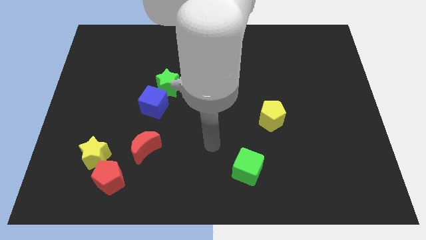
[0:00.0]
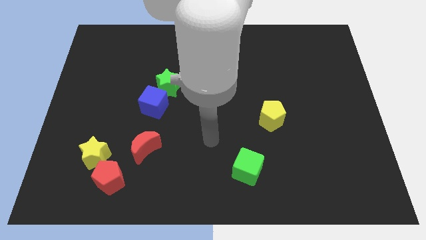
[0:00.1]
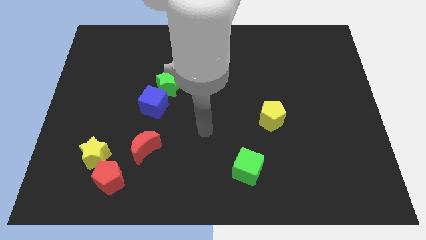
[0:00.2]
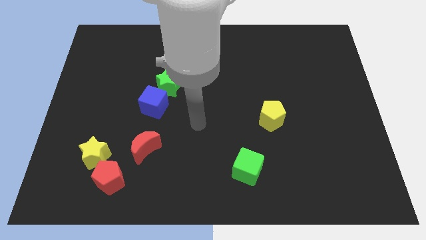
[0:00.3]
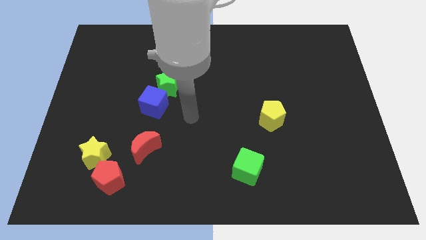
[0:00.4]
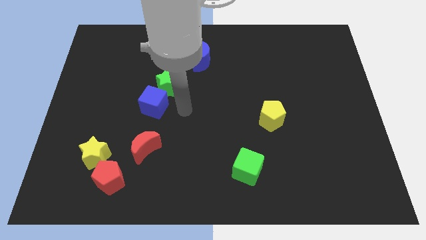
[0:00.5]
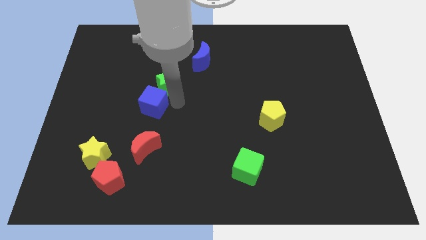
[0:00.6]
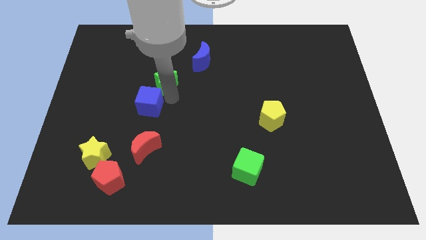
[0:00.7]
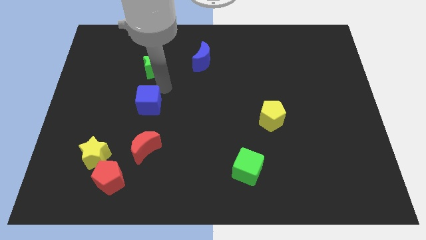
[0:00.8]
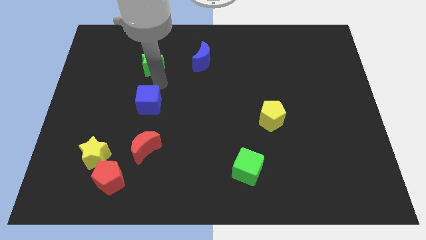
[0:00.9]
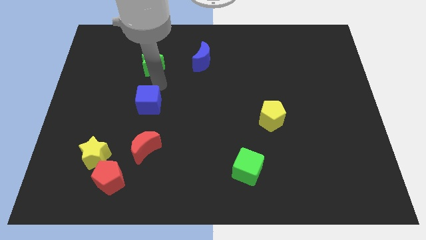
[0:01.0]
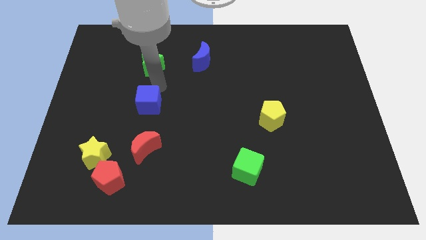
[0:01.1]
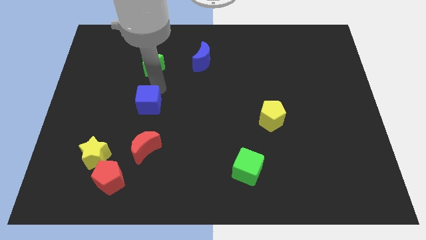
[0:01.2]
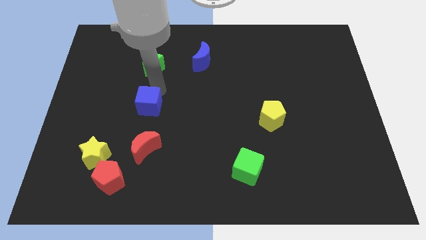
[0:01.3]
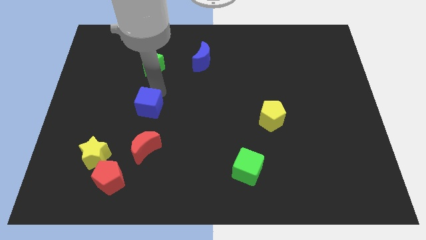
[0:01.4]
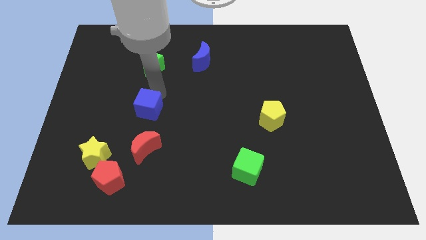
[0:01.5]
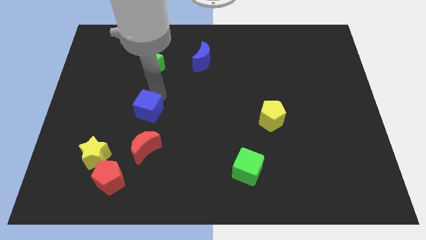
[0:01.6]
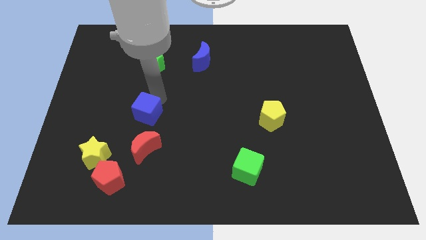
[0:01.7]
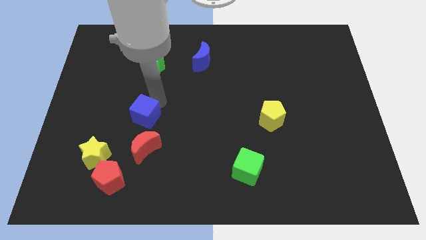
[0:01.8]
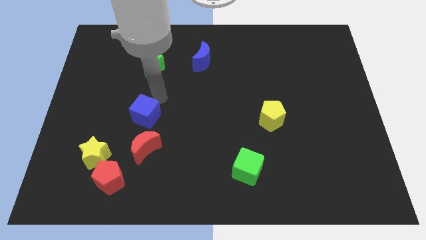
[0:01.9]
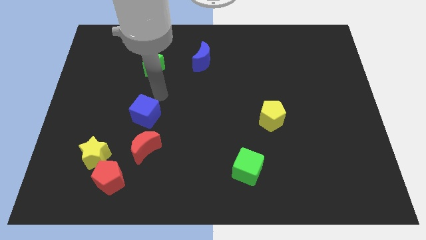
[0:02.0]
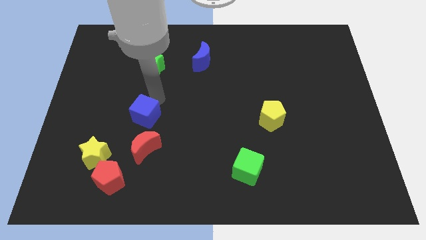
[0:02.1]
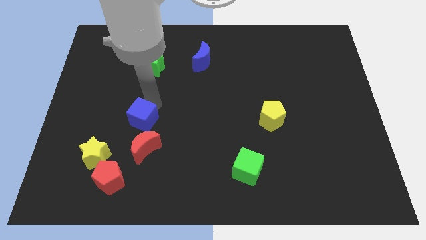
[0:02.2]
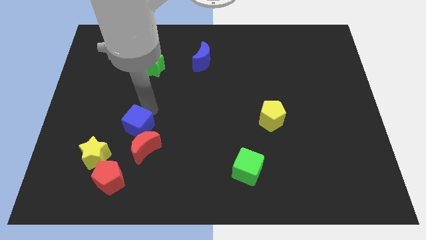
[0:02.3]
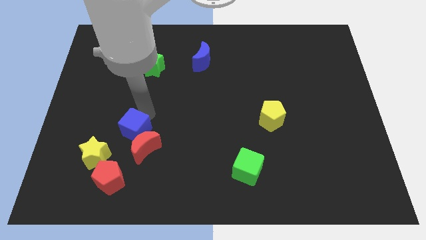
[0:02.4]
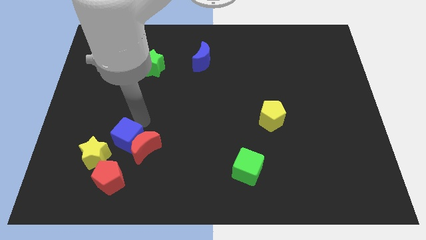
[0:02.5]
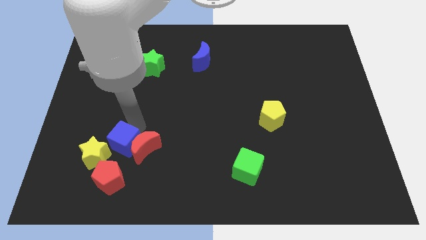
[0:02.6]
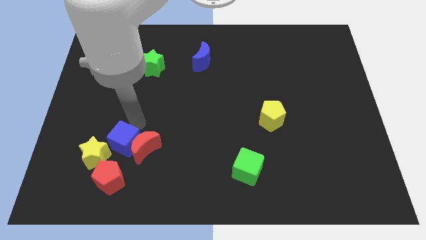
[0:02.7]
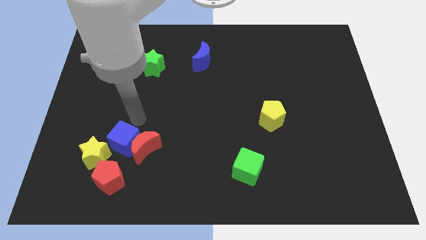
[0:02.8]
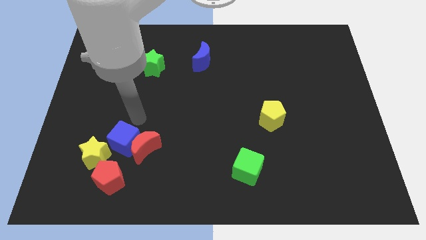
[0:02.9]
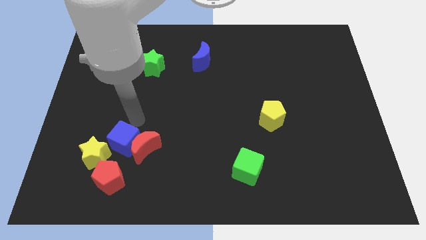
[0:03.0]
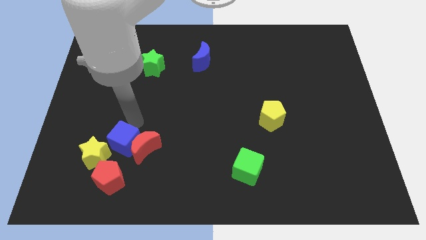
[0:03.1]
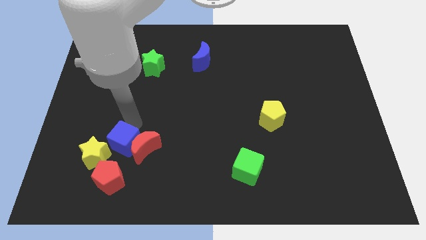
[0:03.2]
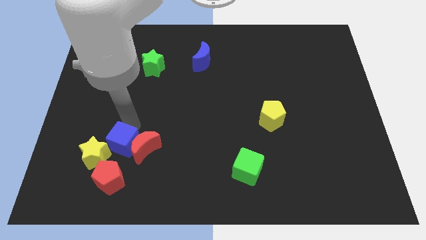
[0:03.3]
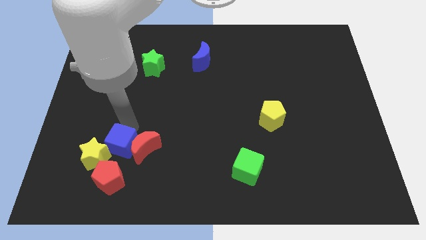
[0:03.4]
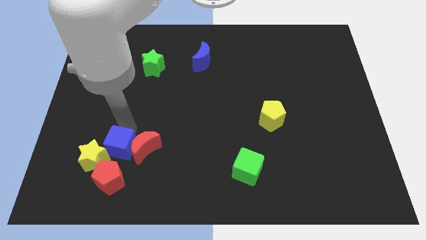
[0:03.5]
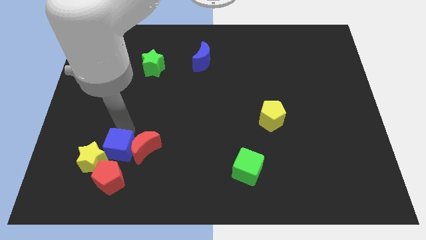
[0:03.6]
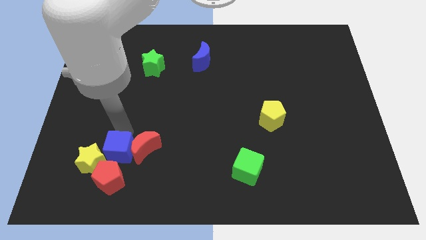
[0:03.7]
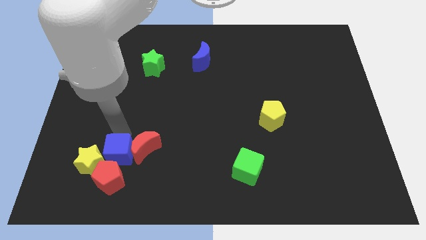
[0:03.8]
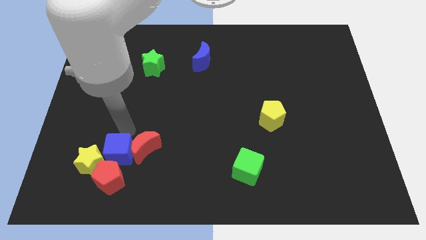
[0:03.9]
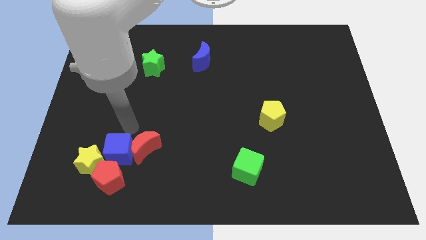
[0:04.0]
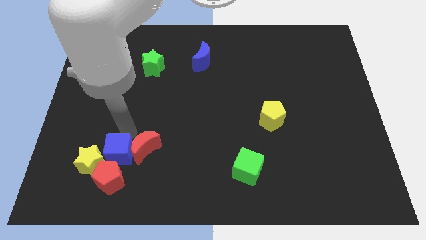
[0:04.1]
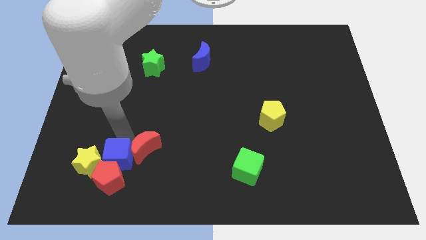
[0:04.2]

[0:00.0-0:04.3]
push the blue cube to the red pentagon

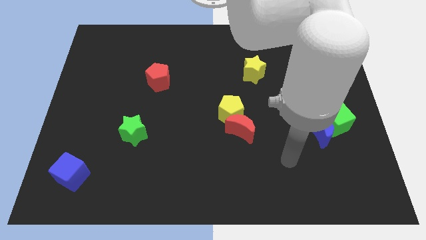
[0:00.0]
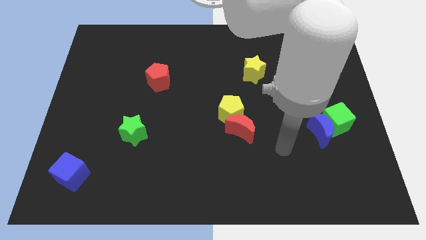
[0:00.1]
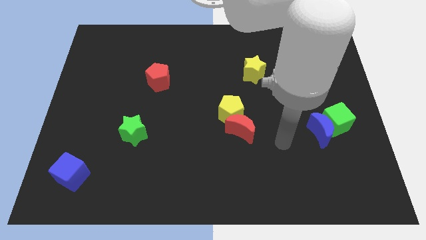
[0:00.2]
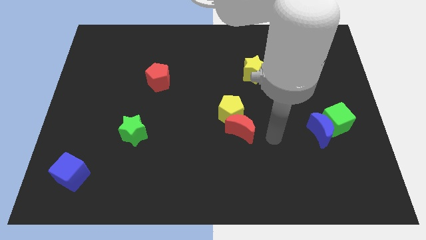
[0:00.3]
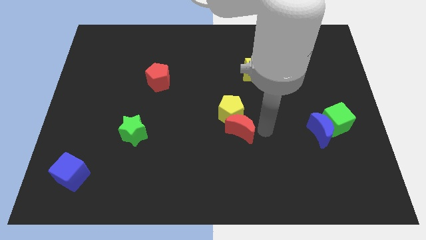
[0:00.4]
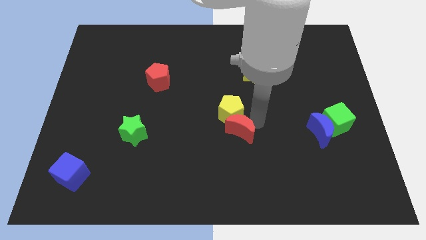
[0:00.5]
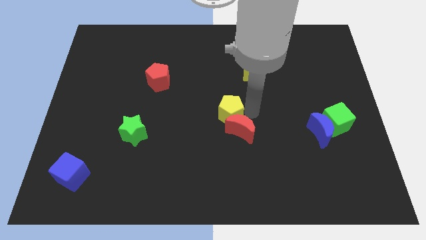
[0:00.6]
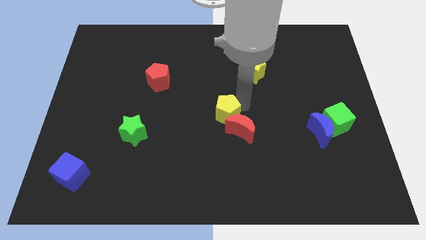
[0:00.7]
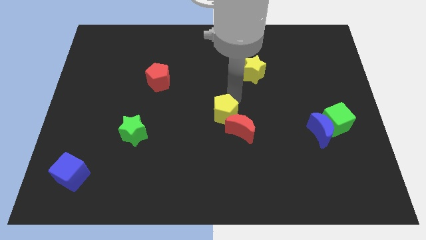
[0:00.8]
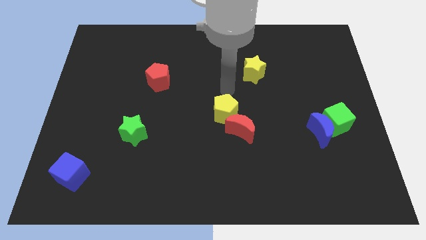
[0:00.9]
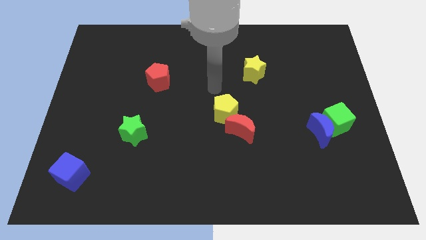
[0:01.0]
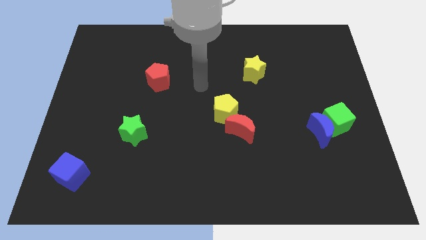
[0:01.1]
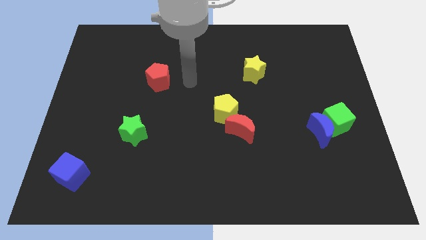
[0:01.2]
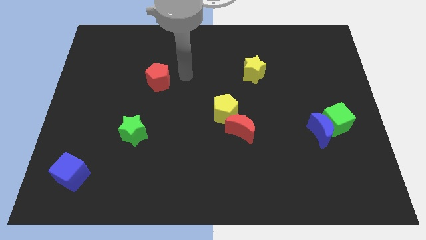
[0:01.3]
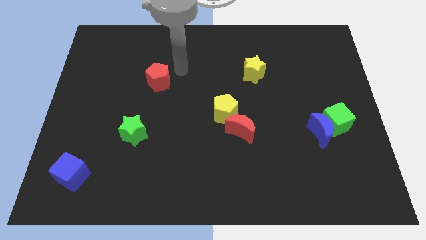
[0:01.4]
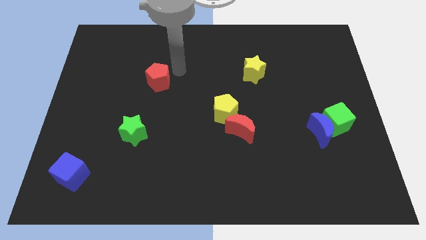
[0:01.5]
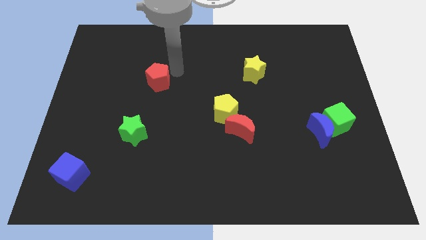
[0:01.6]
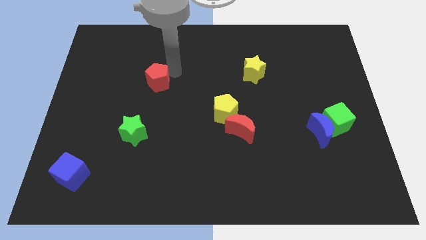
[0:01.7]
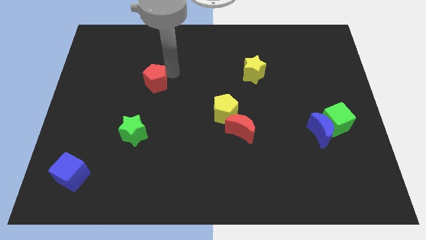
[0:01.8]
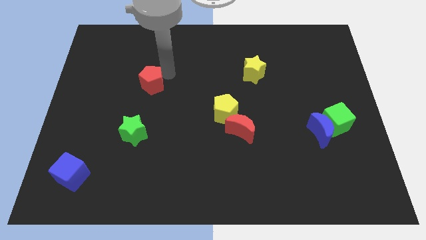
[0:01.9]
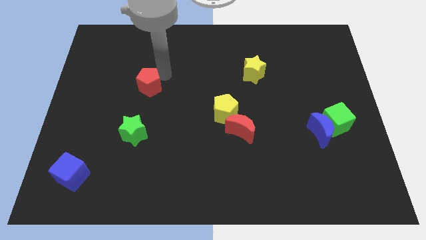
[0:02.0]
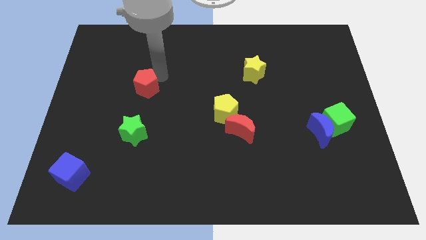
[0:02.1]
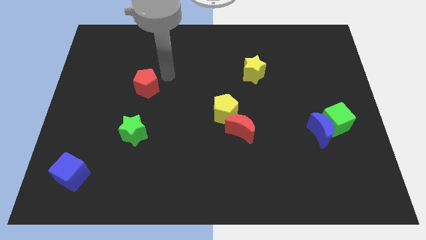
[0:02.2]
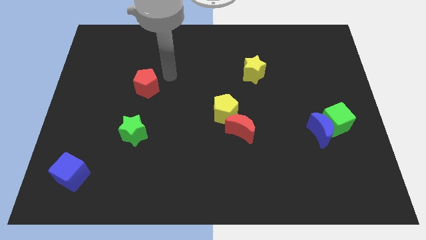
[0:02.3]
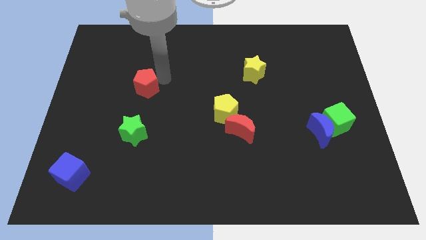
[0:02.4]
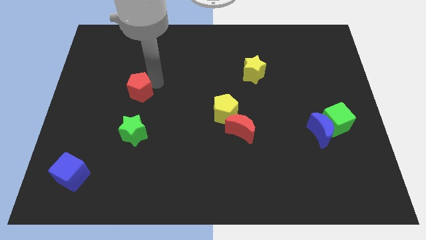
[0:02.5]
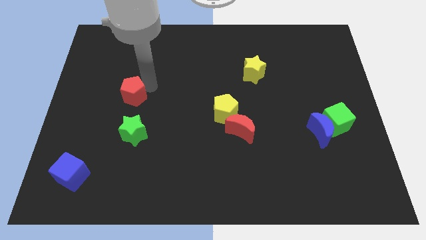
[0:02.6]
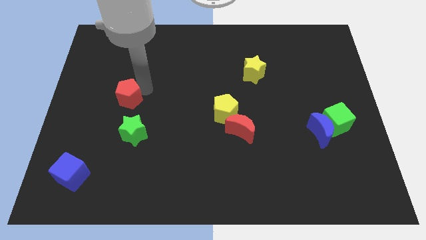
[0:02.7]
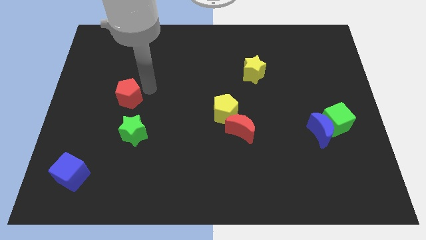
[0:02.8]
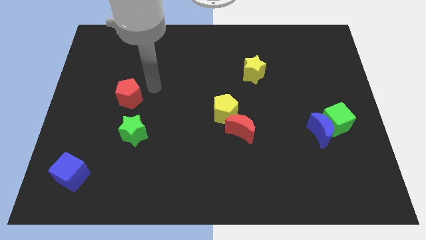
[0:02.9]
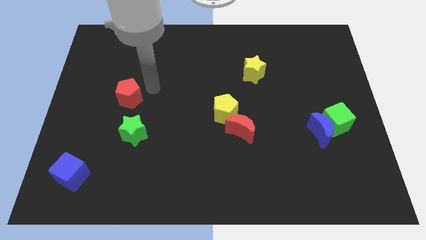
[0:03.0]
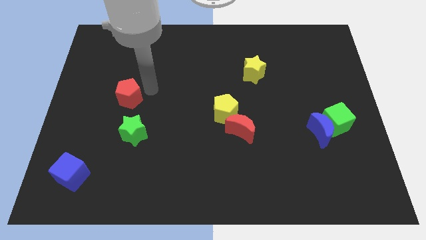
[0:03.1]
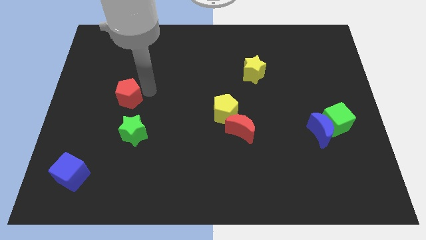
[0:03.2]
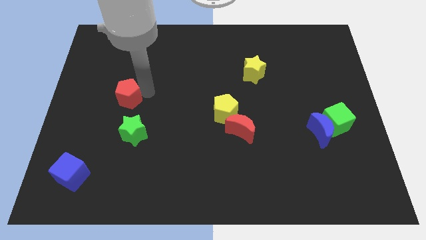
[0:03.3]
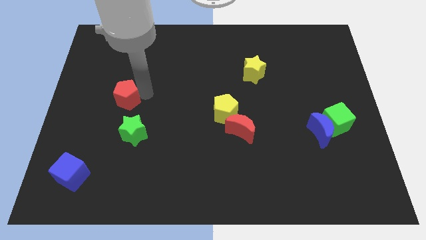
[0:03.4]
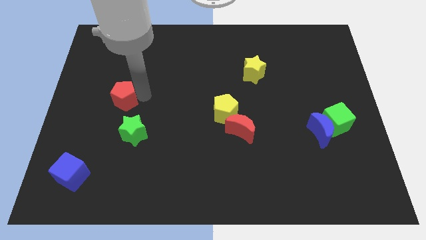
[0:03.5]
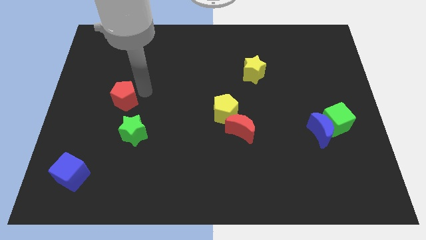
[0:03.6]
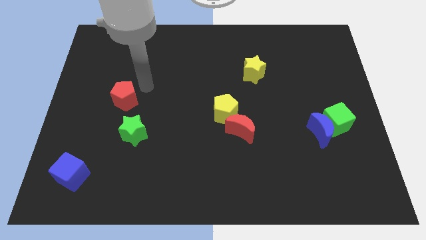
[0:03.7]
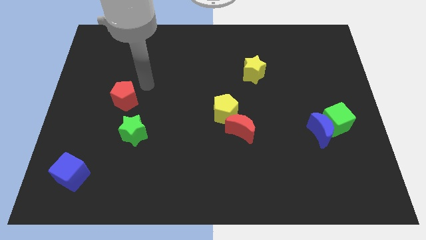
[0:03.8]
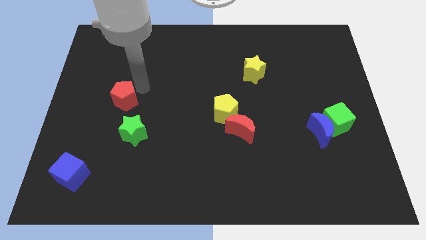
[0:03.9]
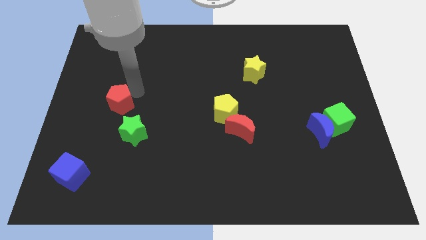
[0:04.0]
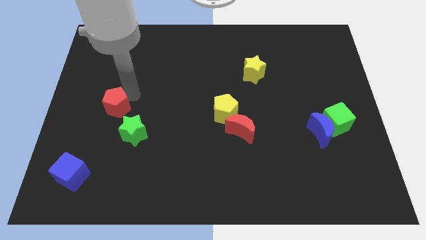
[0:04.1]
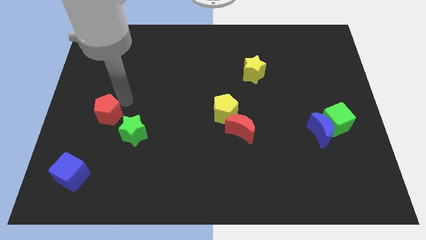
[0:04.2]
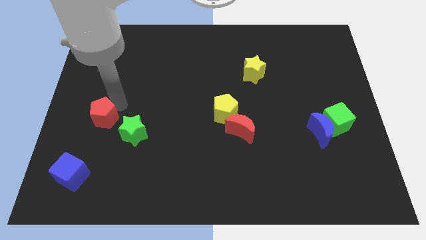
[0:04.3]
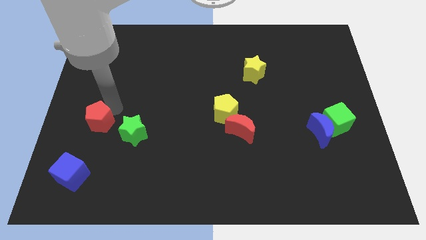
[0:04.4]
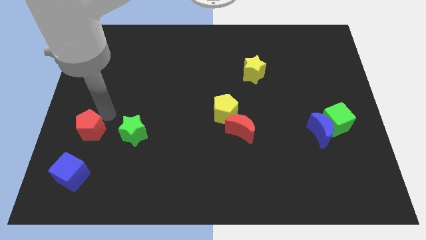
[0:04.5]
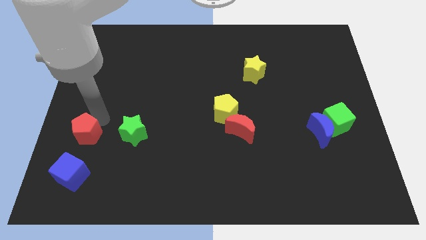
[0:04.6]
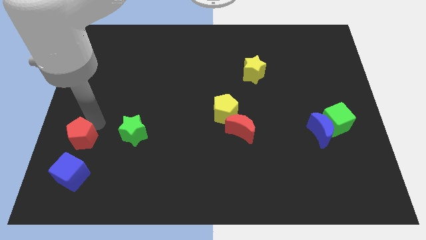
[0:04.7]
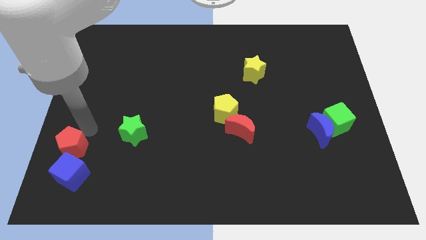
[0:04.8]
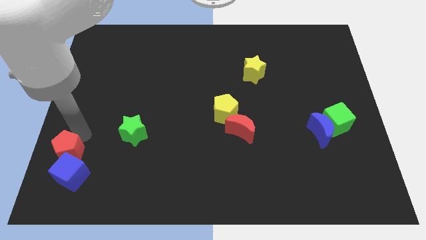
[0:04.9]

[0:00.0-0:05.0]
move the red pentagon to the blue cube
